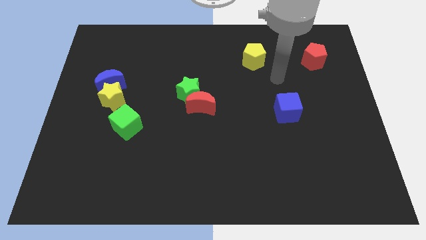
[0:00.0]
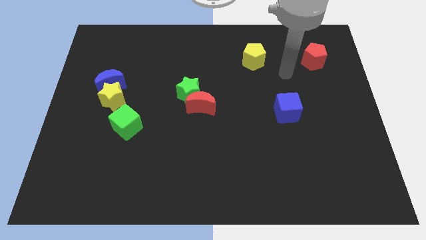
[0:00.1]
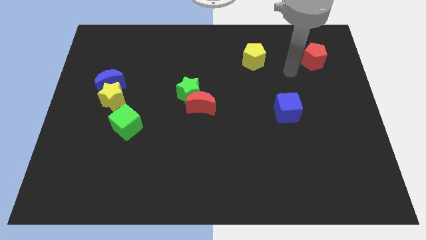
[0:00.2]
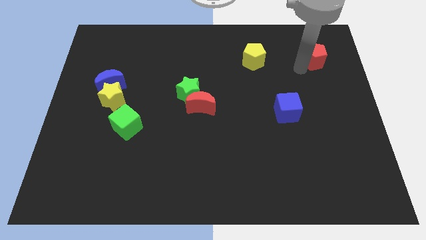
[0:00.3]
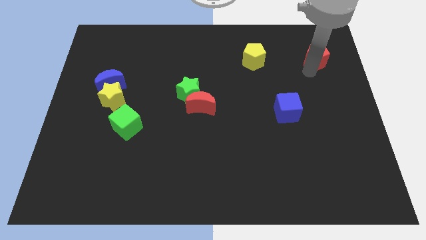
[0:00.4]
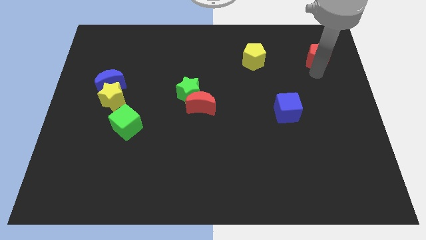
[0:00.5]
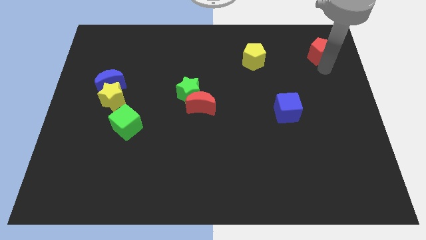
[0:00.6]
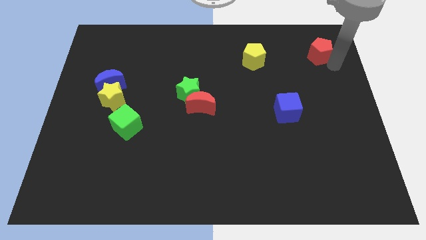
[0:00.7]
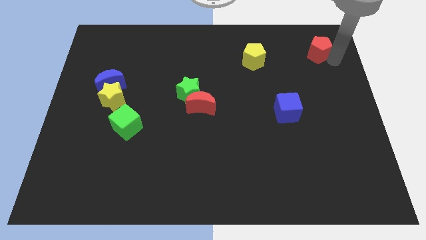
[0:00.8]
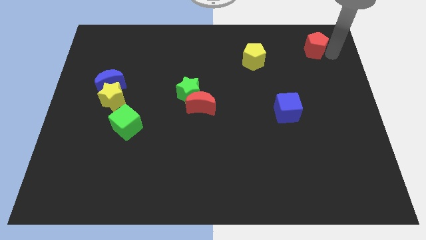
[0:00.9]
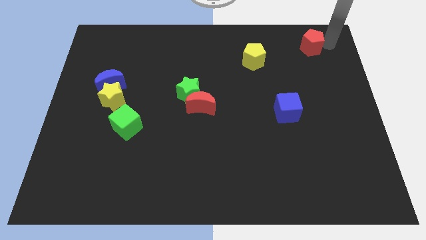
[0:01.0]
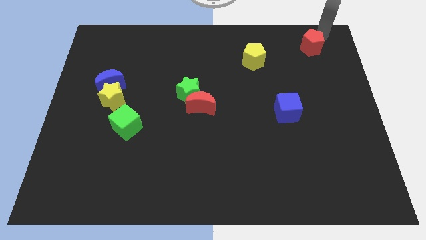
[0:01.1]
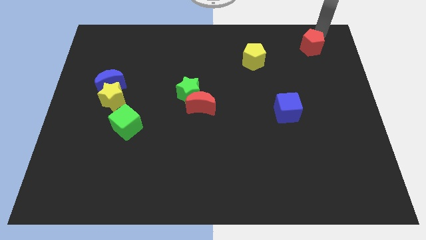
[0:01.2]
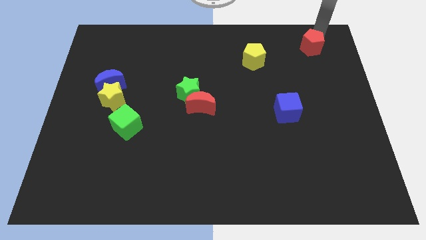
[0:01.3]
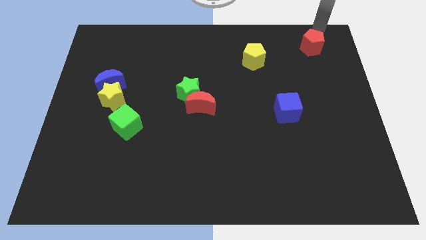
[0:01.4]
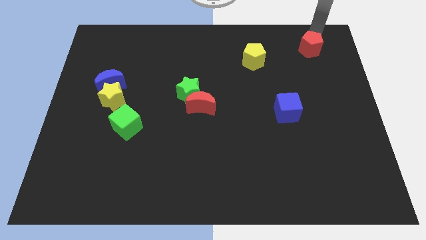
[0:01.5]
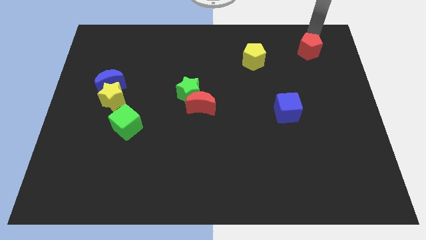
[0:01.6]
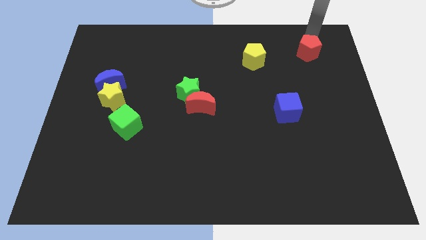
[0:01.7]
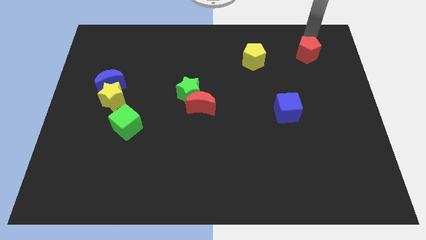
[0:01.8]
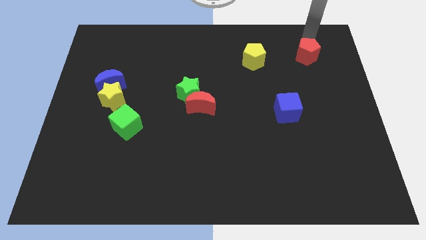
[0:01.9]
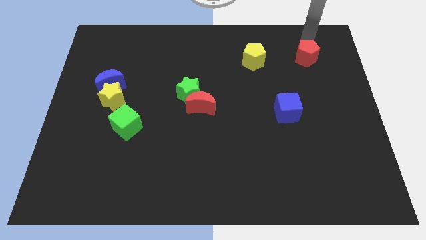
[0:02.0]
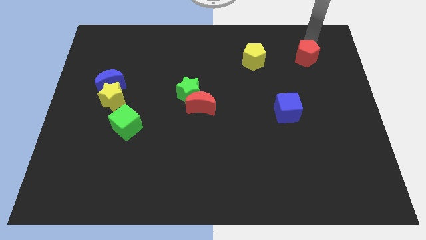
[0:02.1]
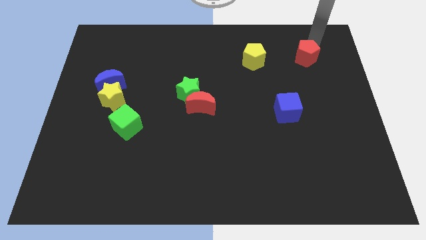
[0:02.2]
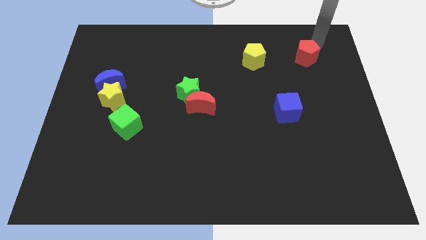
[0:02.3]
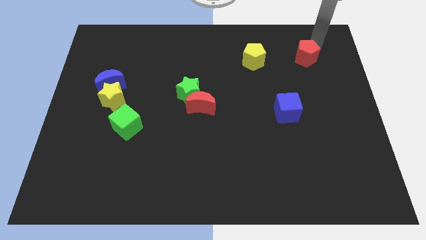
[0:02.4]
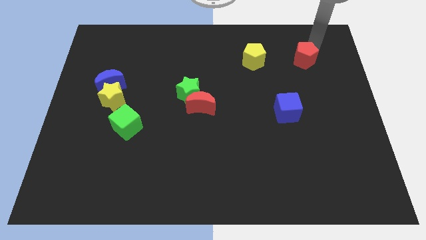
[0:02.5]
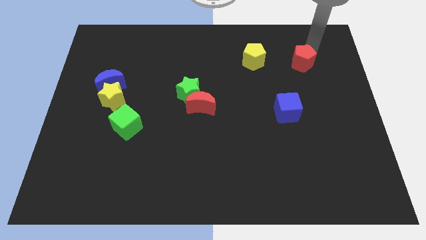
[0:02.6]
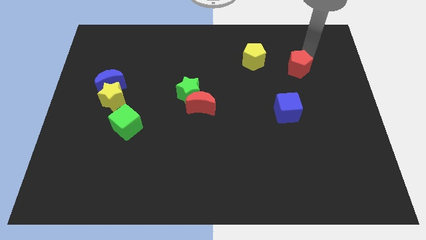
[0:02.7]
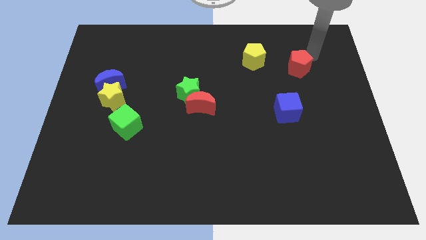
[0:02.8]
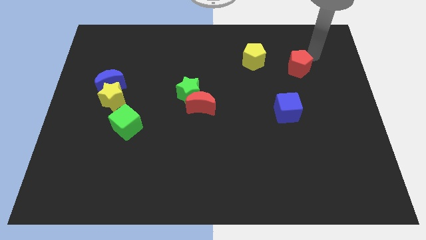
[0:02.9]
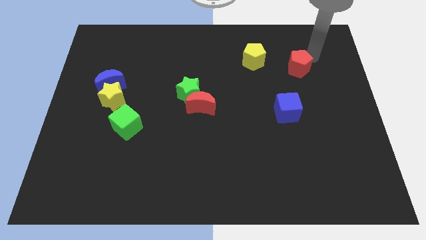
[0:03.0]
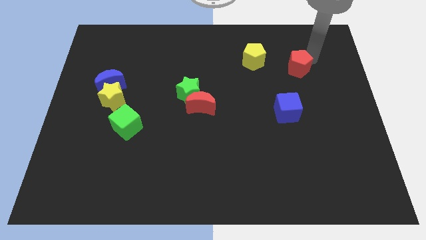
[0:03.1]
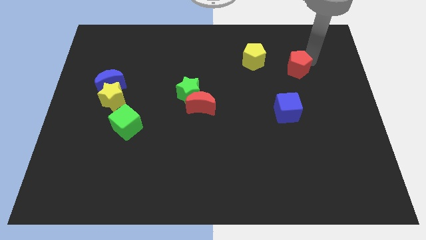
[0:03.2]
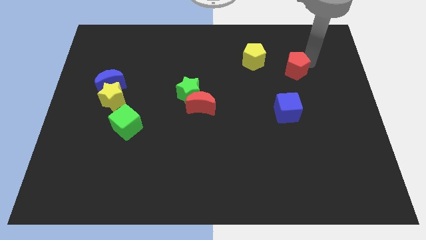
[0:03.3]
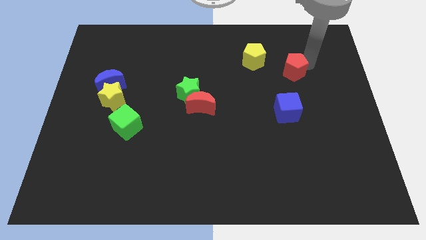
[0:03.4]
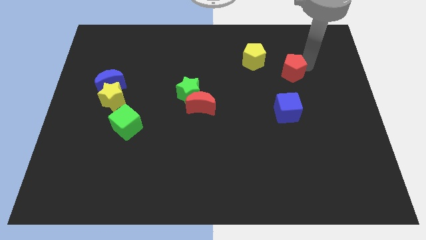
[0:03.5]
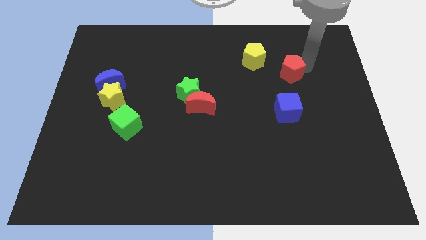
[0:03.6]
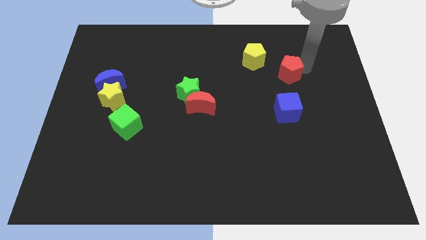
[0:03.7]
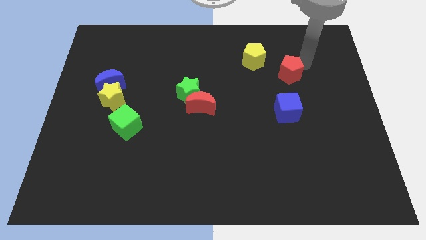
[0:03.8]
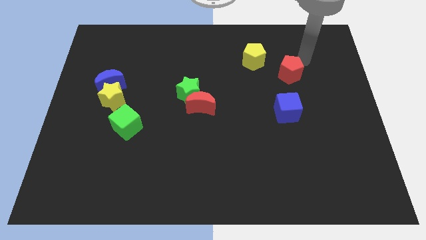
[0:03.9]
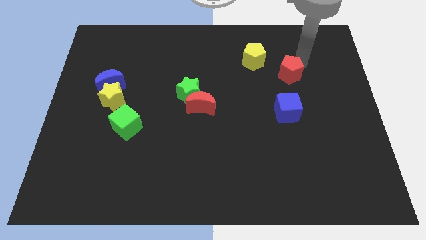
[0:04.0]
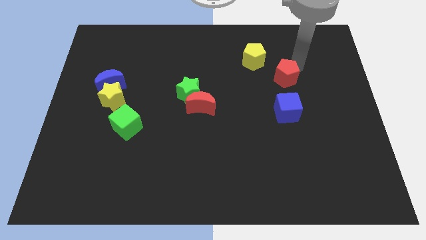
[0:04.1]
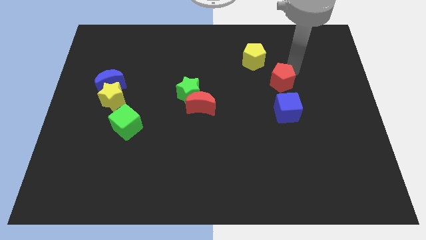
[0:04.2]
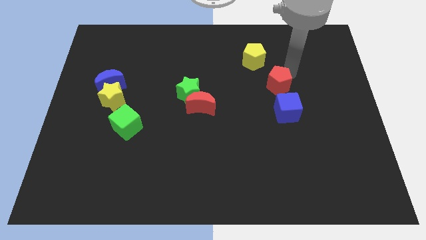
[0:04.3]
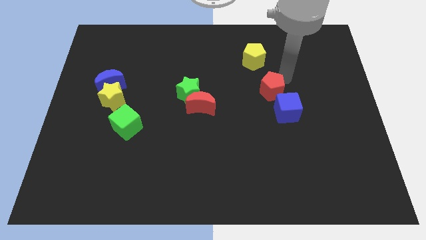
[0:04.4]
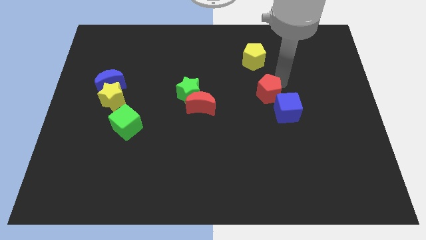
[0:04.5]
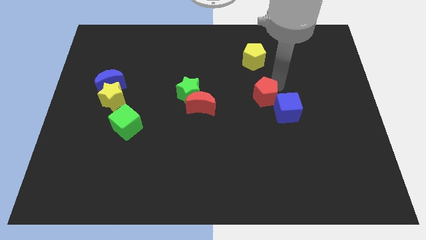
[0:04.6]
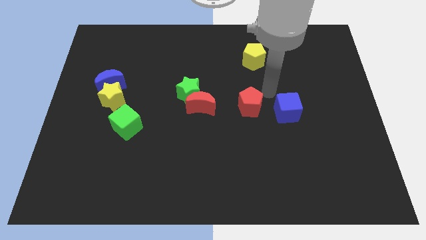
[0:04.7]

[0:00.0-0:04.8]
move the red pentagon down and left

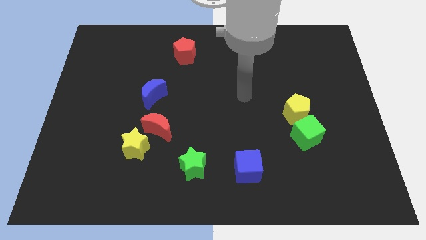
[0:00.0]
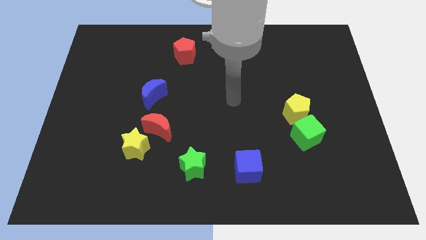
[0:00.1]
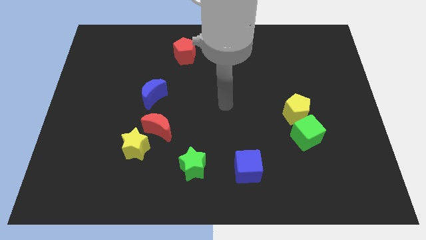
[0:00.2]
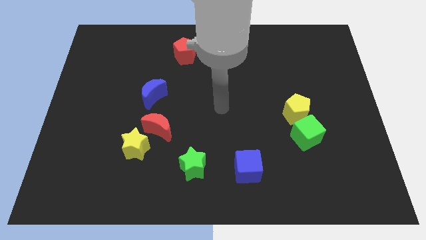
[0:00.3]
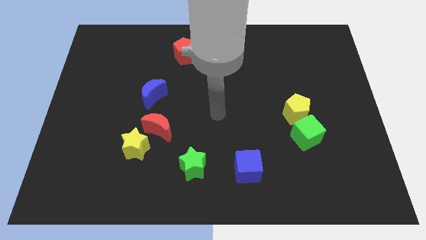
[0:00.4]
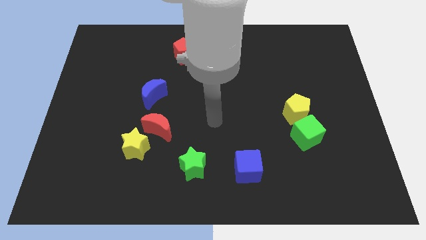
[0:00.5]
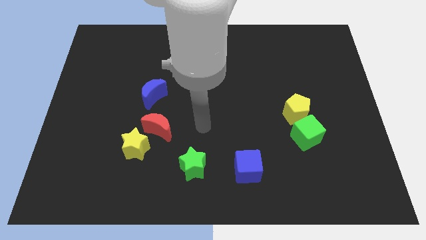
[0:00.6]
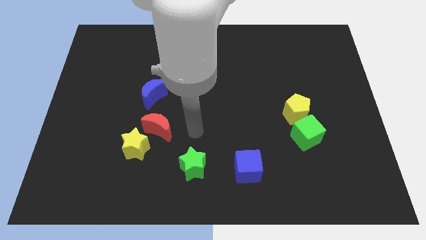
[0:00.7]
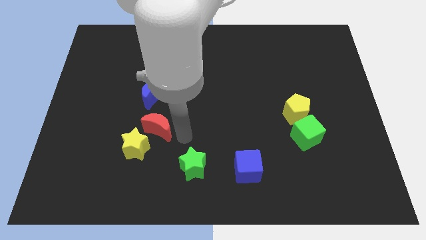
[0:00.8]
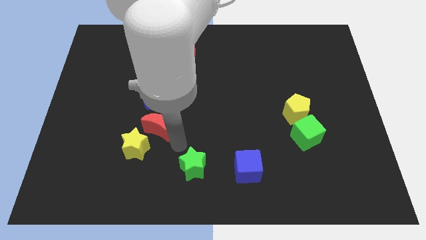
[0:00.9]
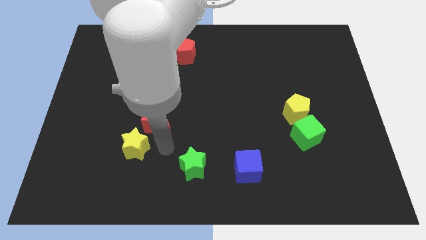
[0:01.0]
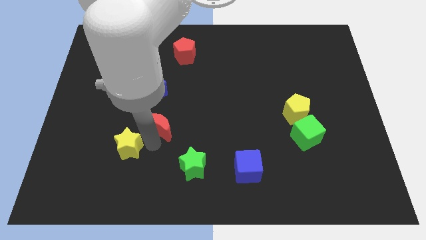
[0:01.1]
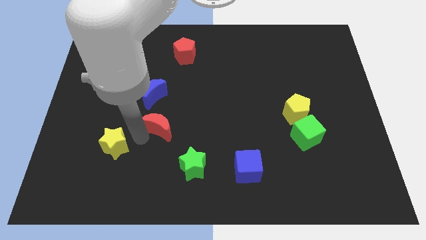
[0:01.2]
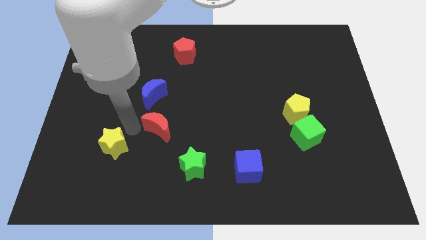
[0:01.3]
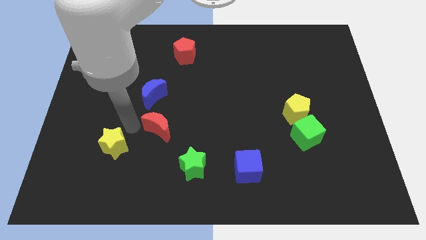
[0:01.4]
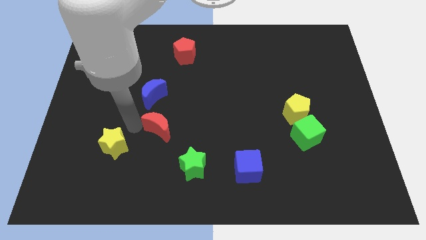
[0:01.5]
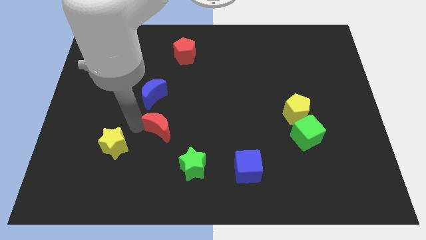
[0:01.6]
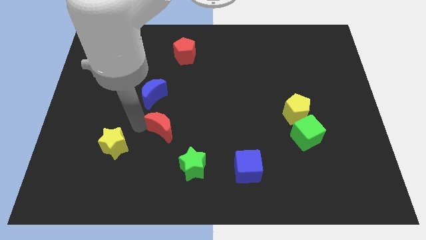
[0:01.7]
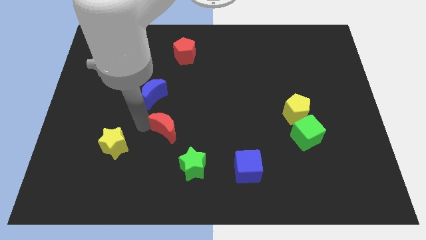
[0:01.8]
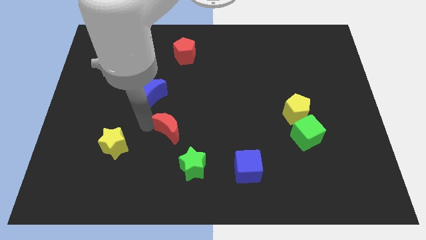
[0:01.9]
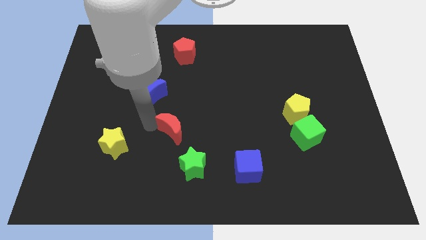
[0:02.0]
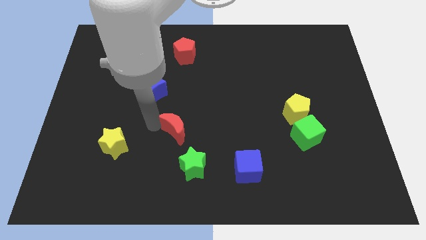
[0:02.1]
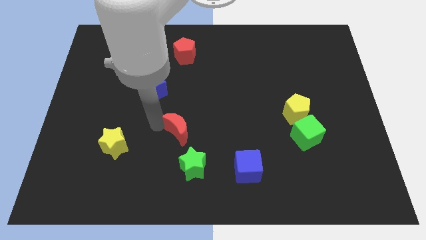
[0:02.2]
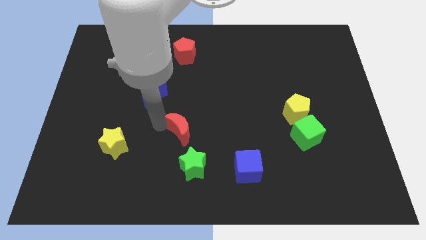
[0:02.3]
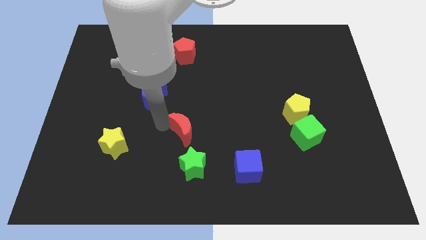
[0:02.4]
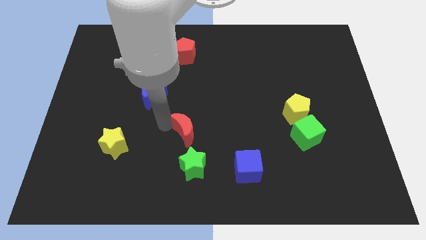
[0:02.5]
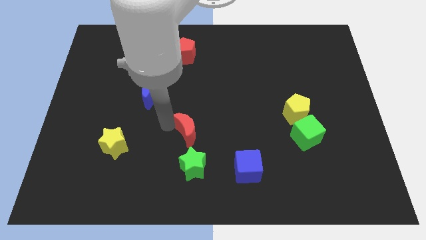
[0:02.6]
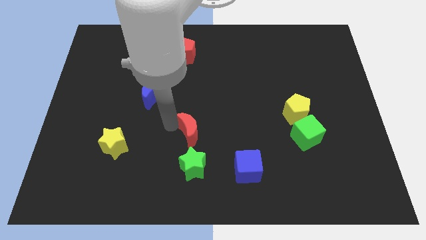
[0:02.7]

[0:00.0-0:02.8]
slightly move the red moon right

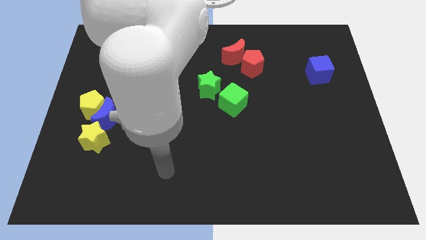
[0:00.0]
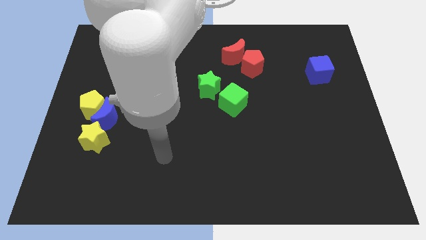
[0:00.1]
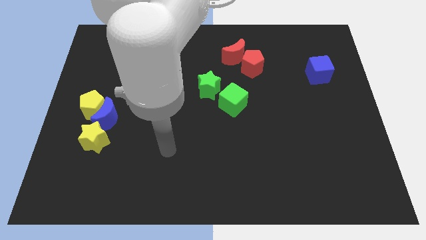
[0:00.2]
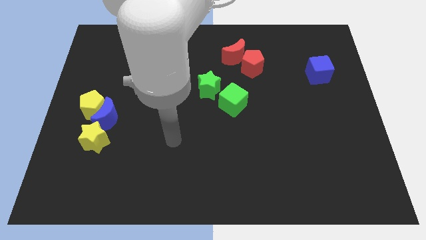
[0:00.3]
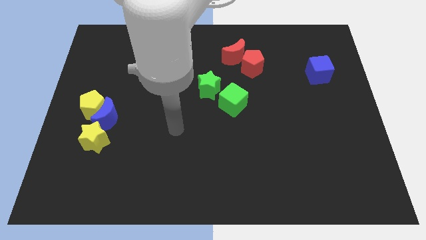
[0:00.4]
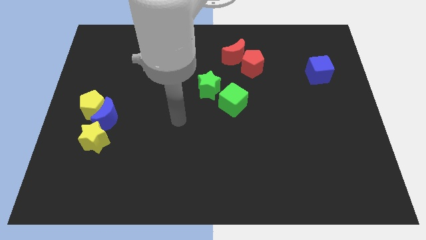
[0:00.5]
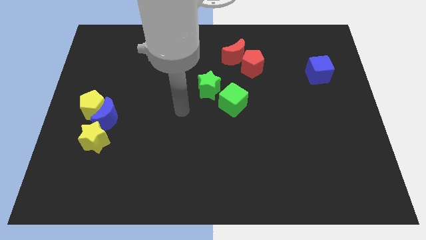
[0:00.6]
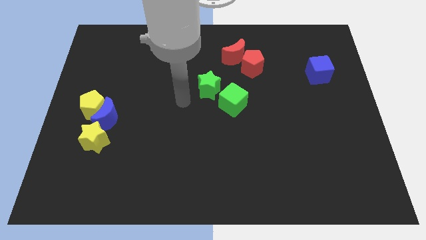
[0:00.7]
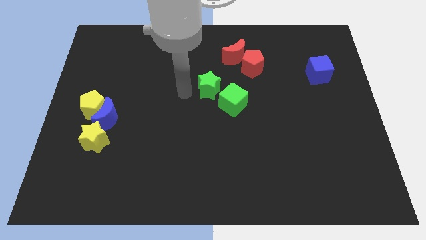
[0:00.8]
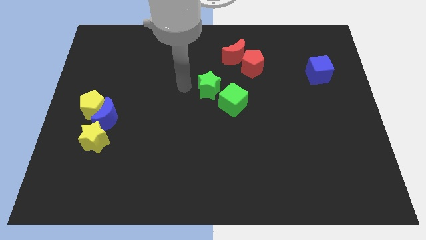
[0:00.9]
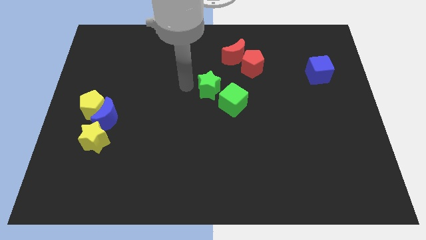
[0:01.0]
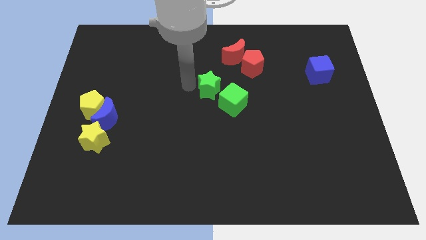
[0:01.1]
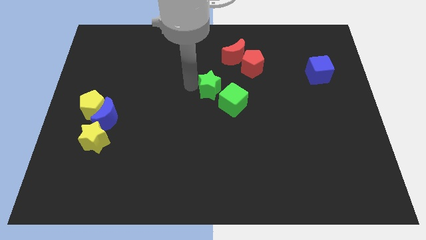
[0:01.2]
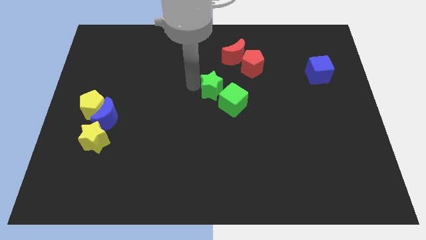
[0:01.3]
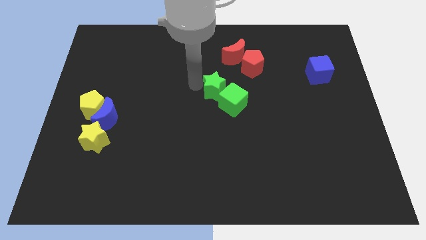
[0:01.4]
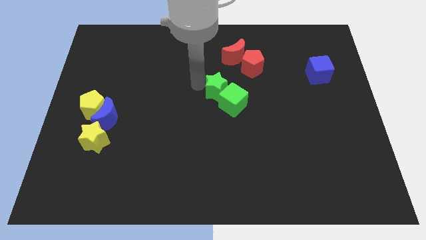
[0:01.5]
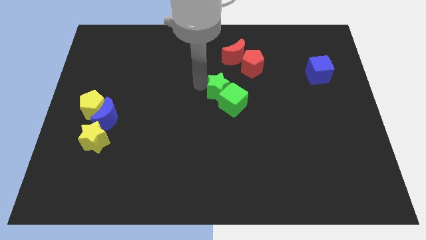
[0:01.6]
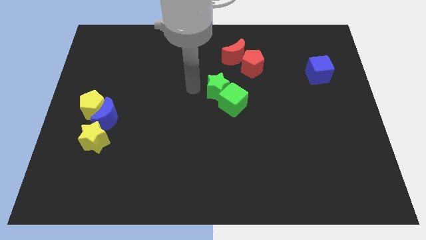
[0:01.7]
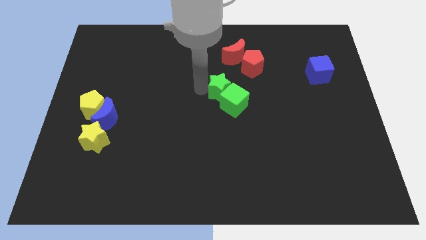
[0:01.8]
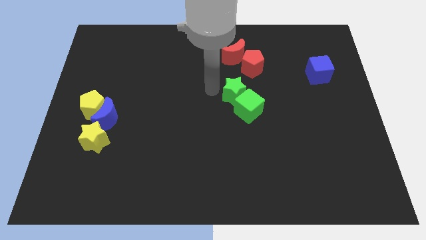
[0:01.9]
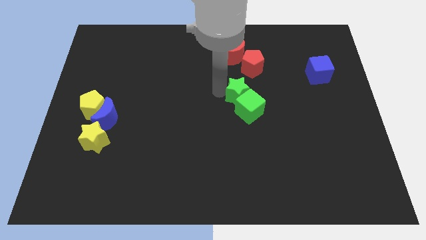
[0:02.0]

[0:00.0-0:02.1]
push the green star slightly right
